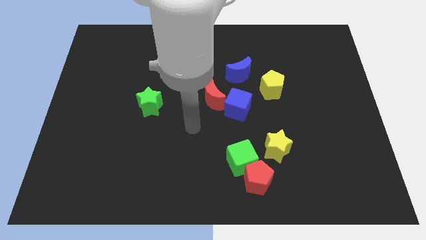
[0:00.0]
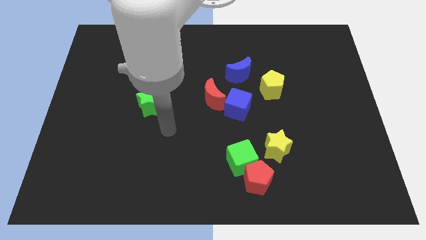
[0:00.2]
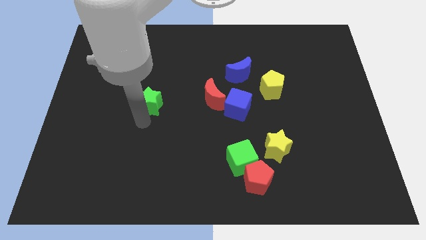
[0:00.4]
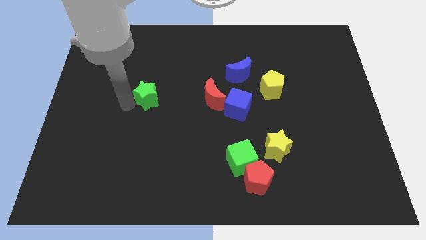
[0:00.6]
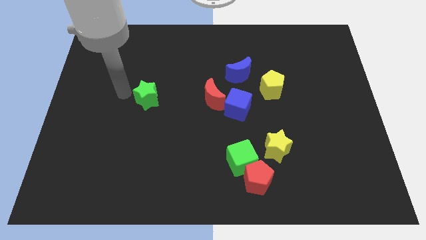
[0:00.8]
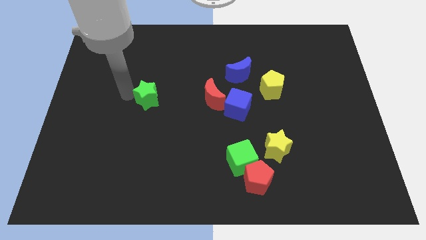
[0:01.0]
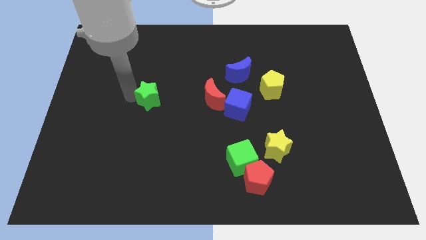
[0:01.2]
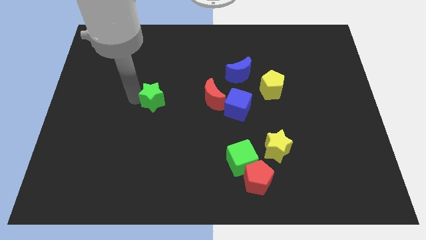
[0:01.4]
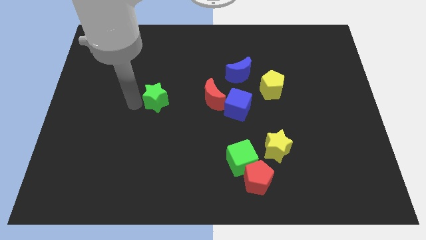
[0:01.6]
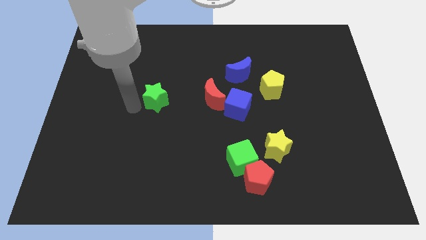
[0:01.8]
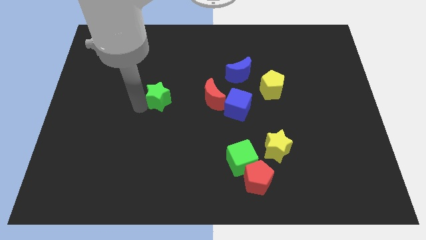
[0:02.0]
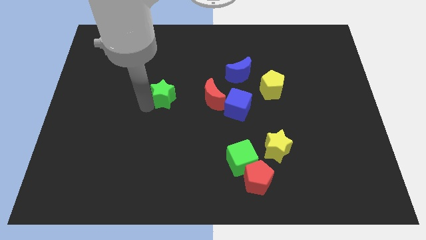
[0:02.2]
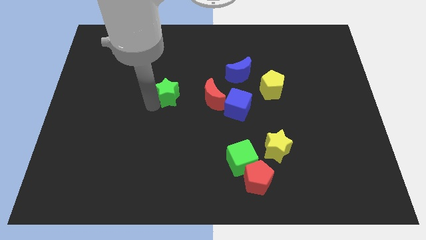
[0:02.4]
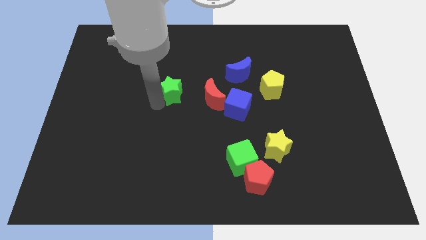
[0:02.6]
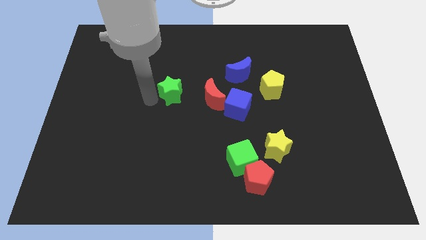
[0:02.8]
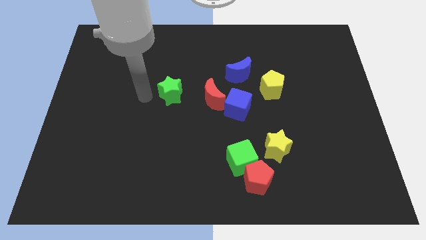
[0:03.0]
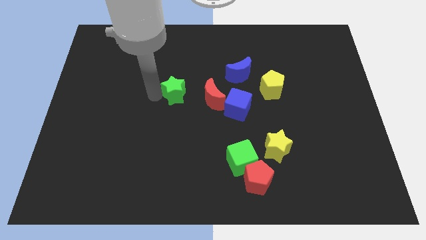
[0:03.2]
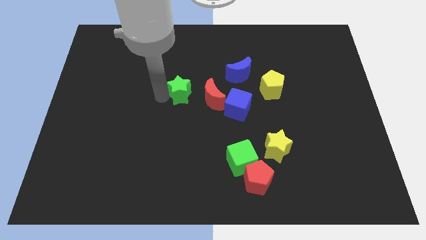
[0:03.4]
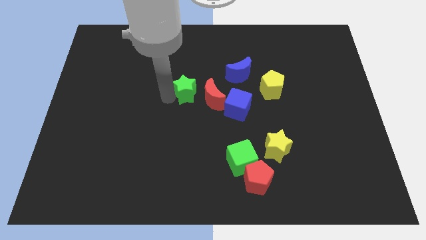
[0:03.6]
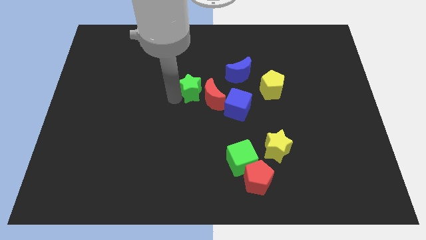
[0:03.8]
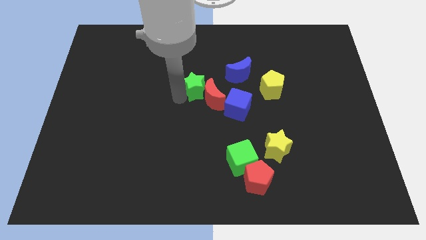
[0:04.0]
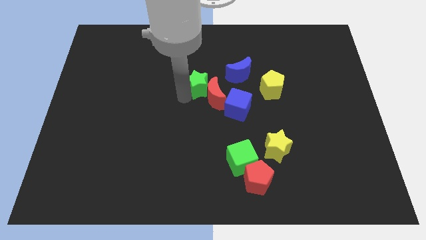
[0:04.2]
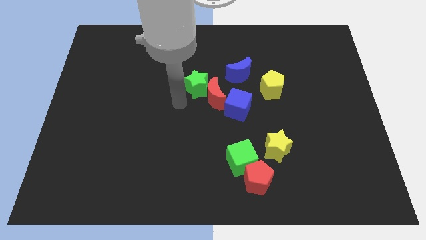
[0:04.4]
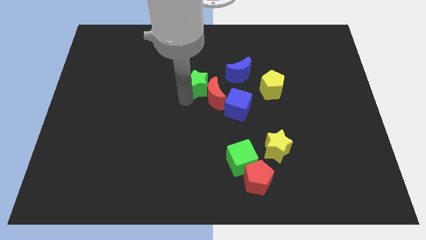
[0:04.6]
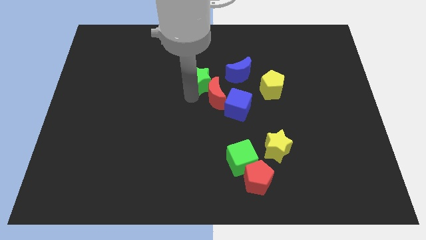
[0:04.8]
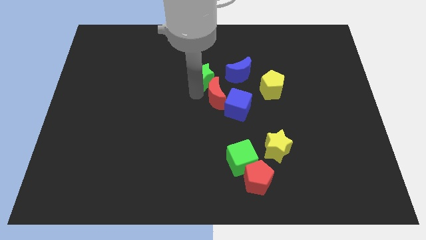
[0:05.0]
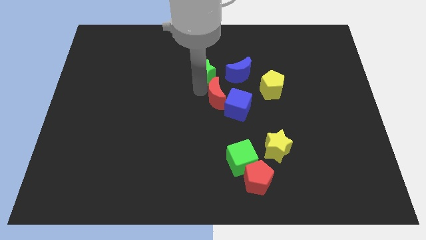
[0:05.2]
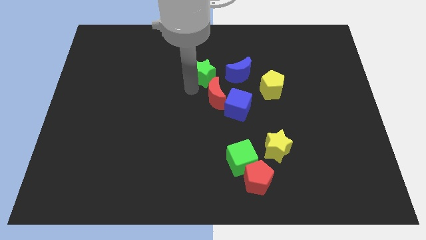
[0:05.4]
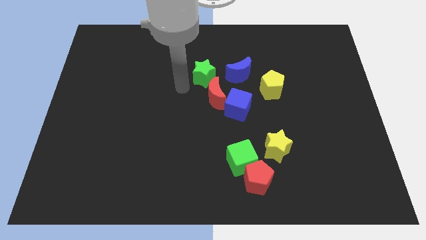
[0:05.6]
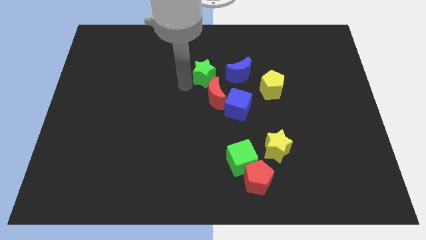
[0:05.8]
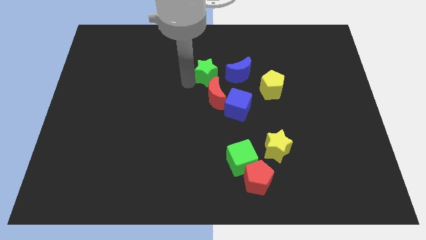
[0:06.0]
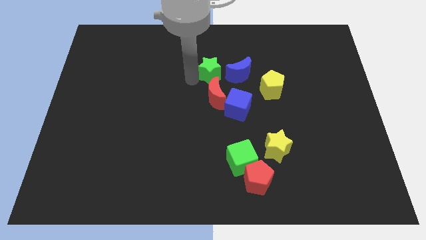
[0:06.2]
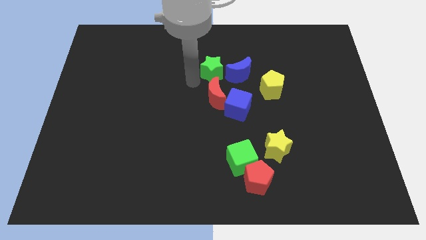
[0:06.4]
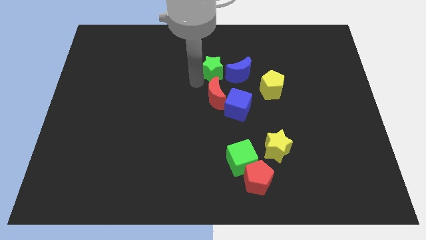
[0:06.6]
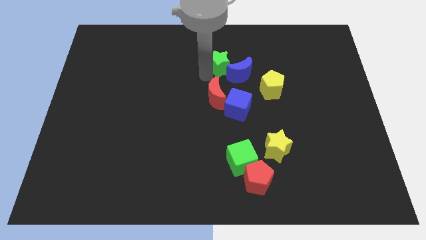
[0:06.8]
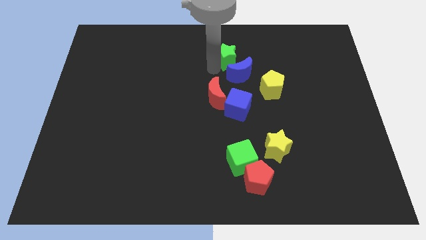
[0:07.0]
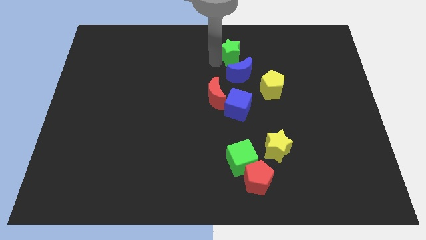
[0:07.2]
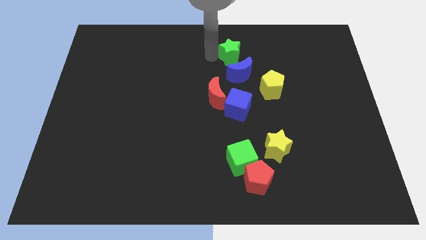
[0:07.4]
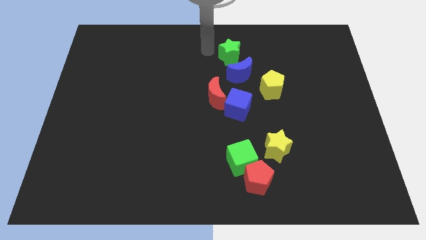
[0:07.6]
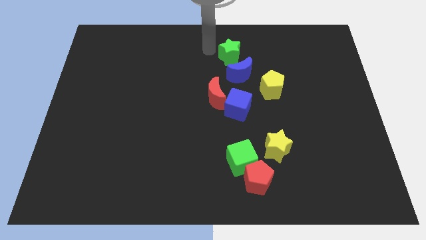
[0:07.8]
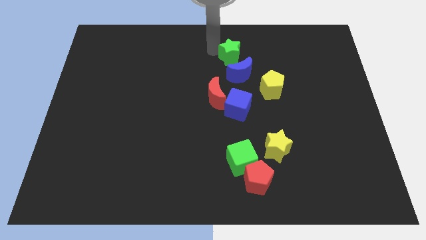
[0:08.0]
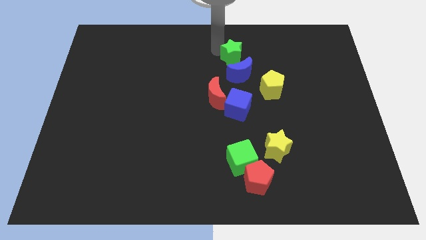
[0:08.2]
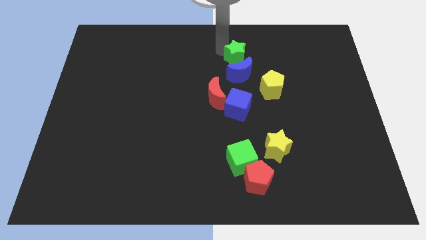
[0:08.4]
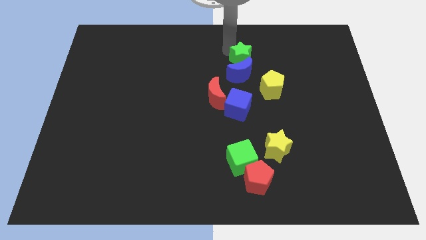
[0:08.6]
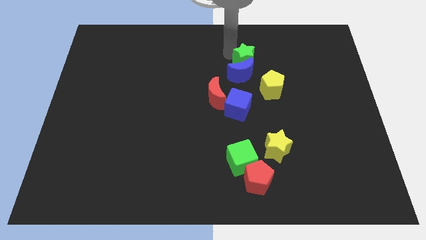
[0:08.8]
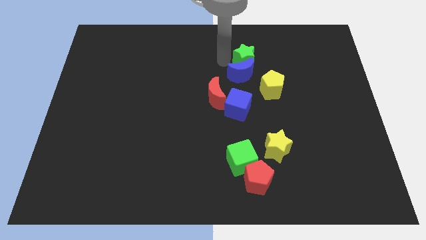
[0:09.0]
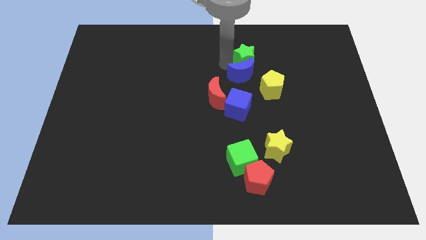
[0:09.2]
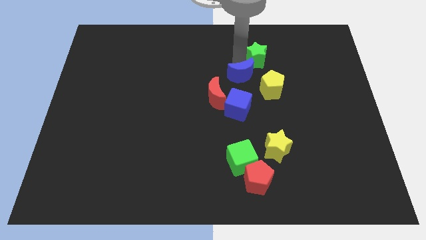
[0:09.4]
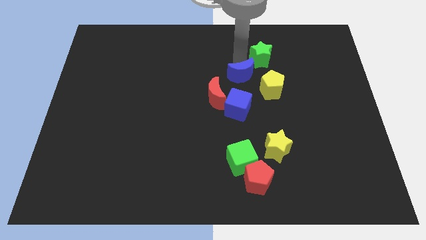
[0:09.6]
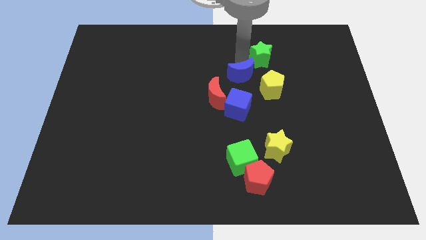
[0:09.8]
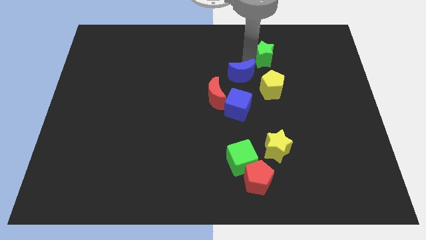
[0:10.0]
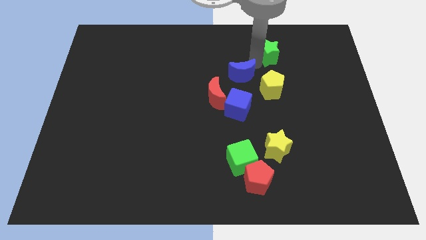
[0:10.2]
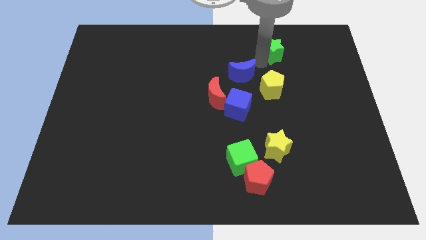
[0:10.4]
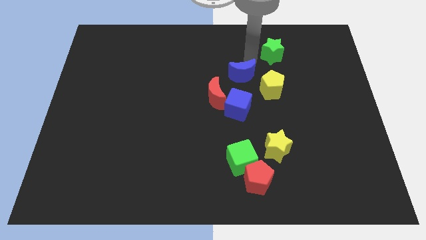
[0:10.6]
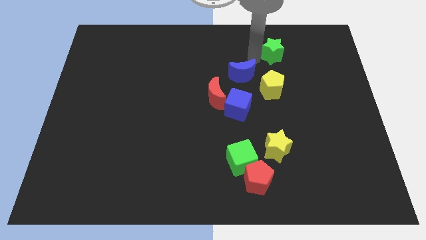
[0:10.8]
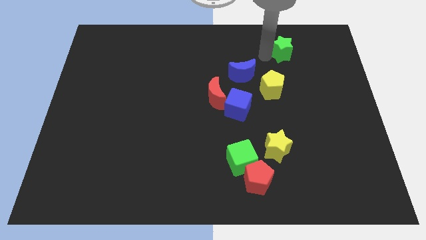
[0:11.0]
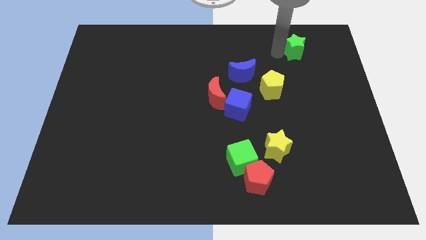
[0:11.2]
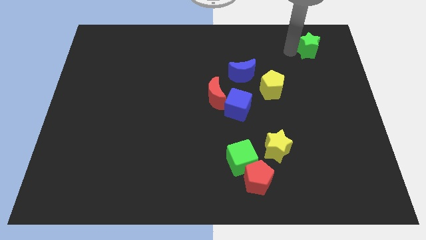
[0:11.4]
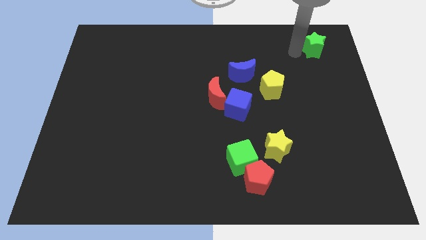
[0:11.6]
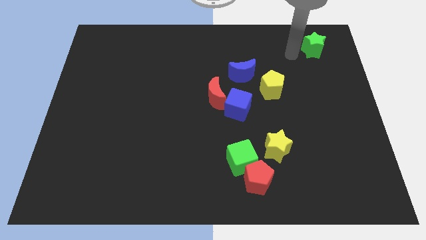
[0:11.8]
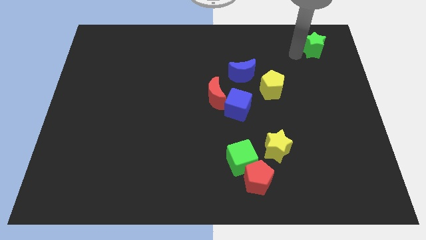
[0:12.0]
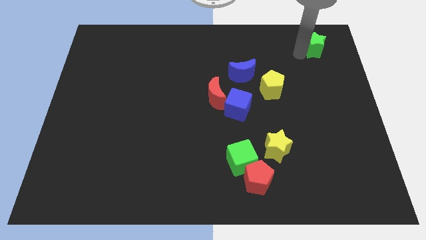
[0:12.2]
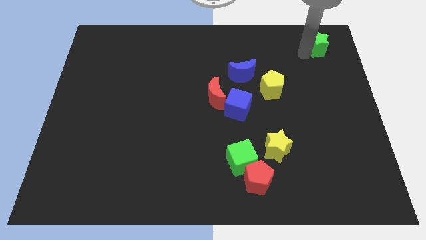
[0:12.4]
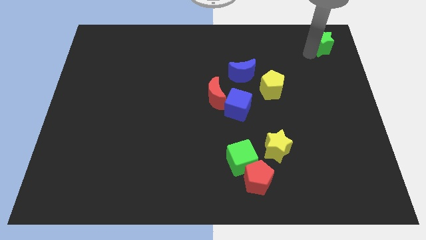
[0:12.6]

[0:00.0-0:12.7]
slide the green star to the top right corner
